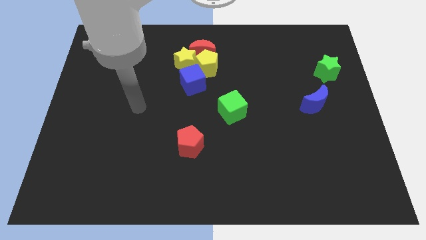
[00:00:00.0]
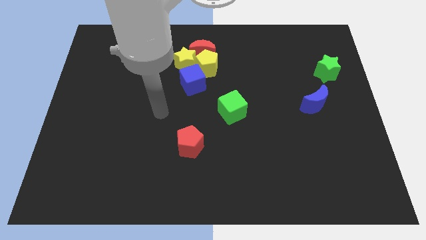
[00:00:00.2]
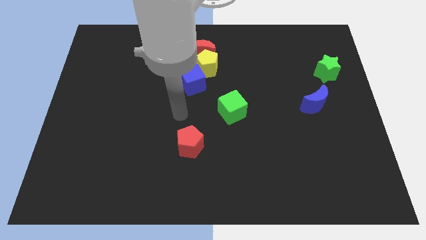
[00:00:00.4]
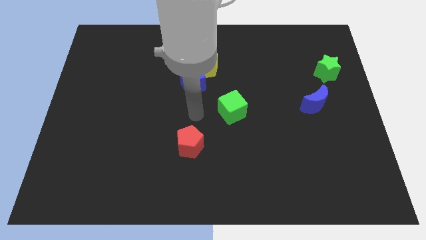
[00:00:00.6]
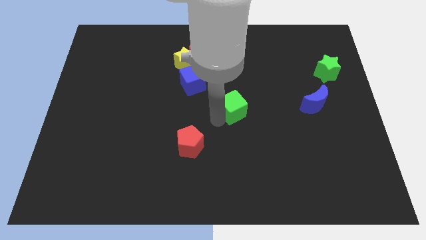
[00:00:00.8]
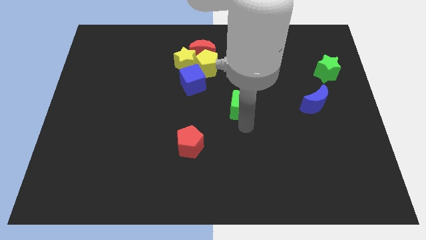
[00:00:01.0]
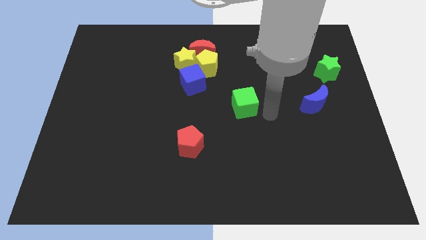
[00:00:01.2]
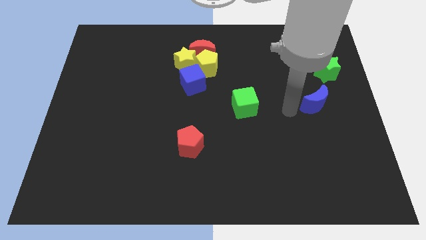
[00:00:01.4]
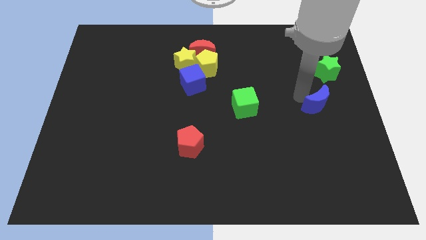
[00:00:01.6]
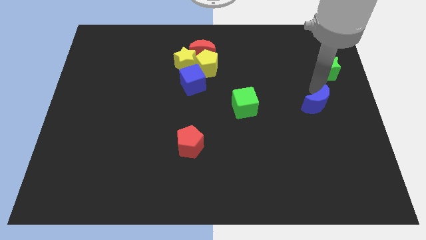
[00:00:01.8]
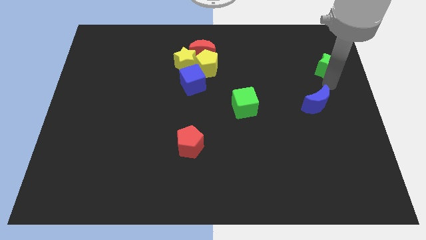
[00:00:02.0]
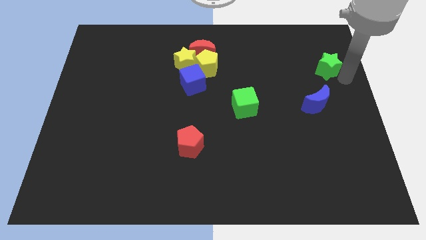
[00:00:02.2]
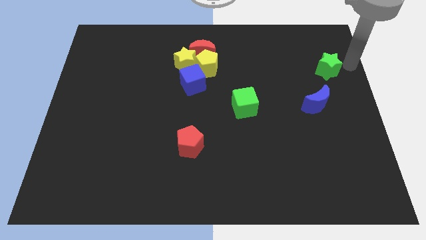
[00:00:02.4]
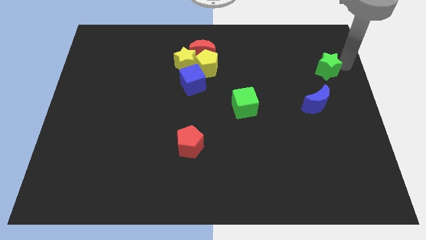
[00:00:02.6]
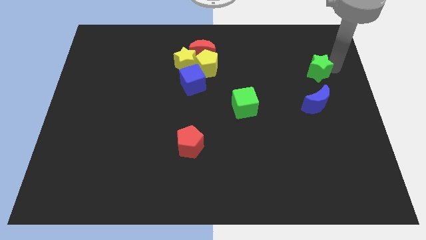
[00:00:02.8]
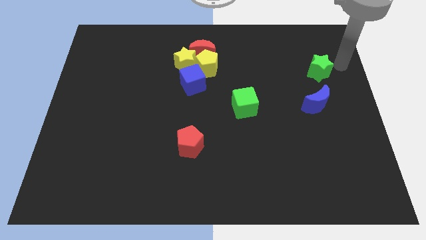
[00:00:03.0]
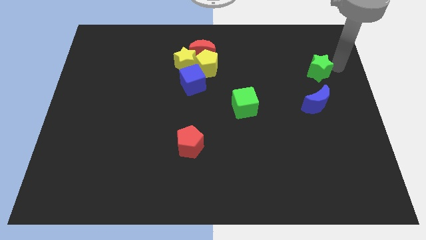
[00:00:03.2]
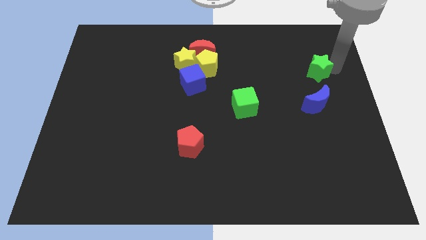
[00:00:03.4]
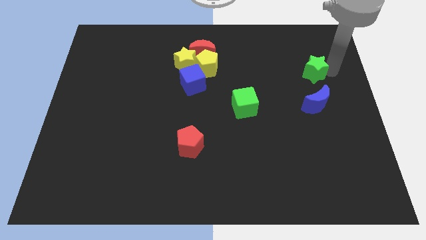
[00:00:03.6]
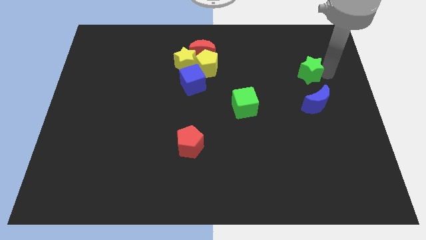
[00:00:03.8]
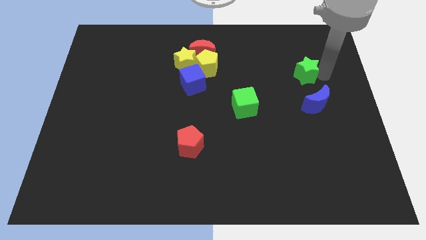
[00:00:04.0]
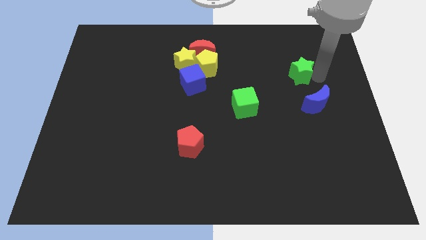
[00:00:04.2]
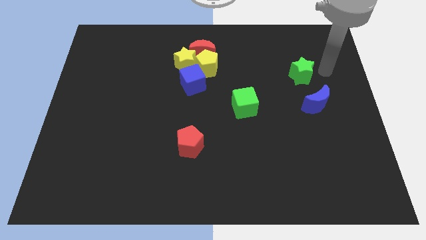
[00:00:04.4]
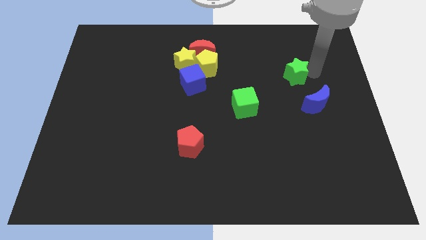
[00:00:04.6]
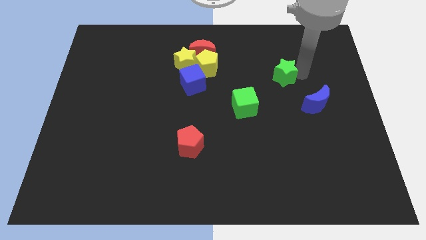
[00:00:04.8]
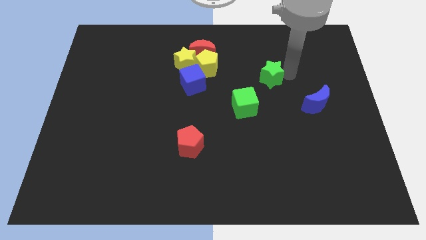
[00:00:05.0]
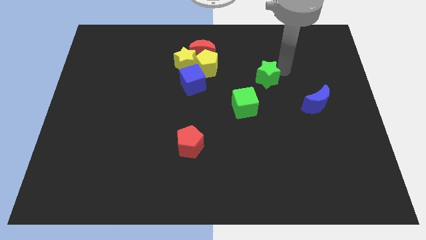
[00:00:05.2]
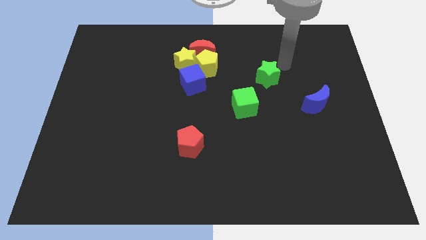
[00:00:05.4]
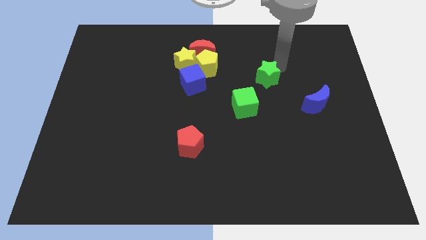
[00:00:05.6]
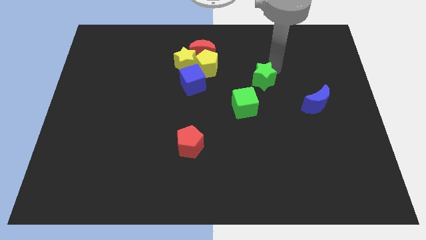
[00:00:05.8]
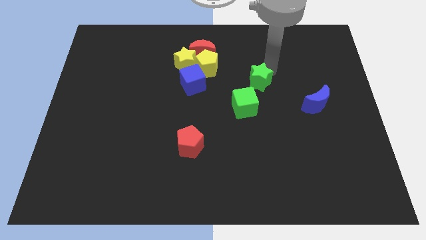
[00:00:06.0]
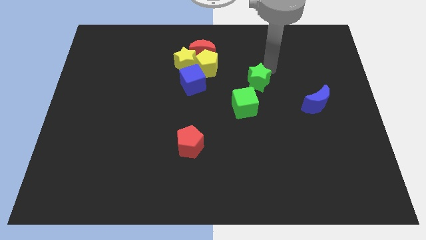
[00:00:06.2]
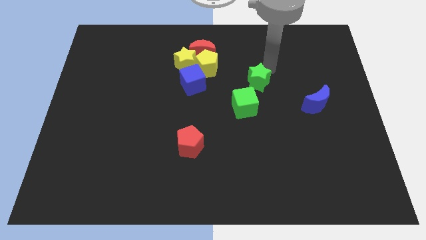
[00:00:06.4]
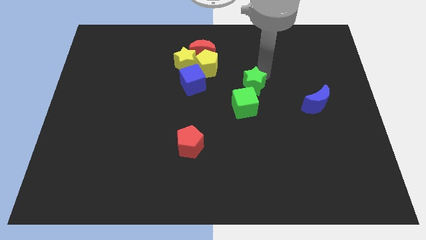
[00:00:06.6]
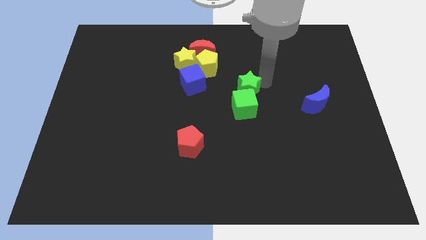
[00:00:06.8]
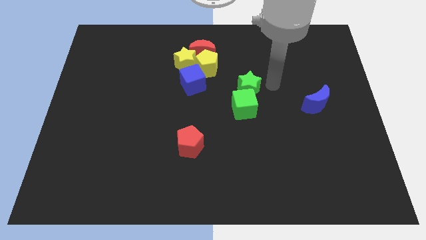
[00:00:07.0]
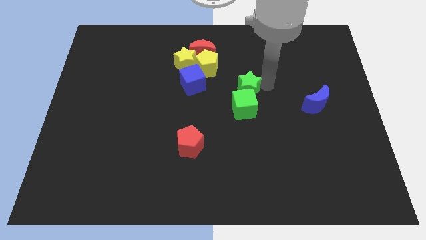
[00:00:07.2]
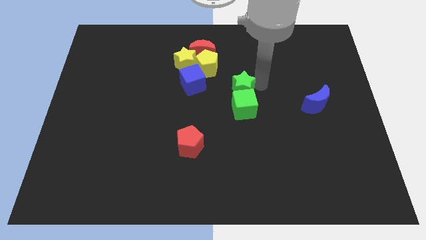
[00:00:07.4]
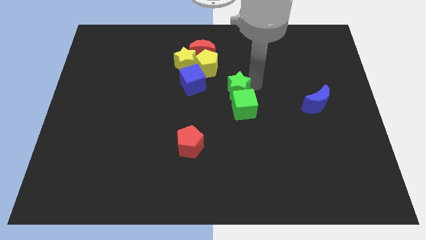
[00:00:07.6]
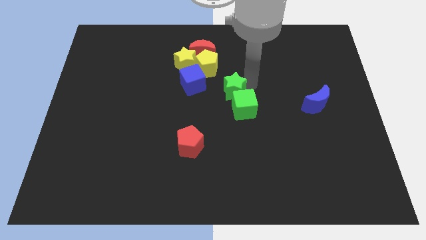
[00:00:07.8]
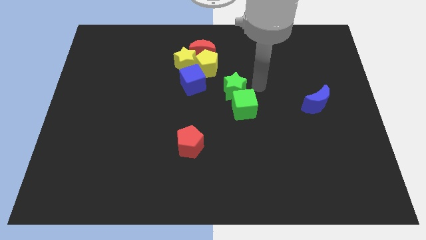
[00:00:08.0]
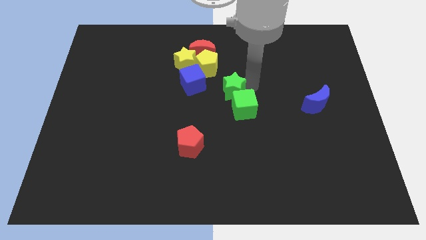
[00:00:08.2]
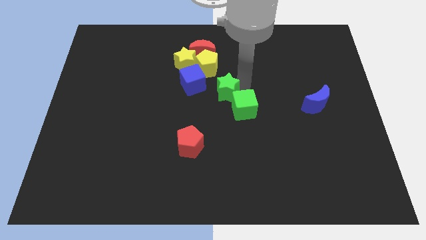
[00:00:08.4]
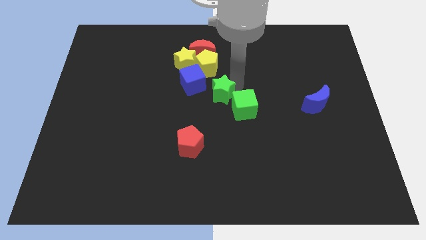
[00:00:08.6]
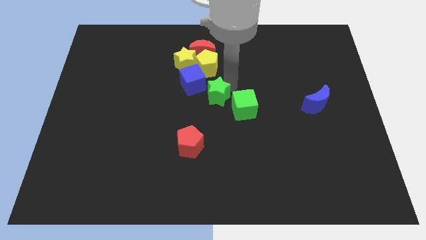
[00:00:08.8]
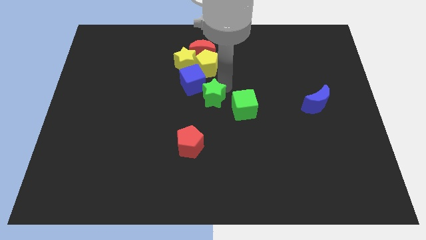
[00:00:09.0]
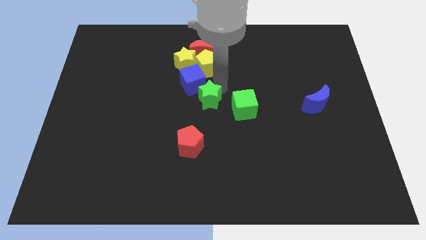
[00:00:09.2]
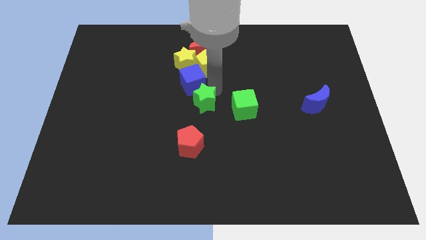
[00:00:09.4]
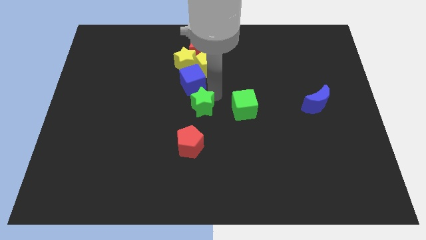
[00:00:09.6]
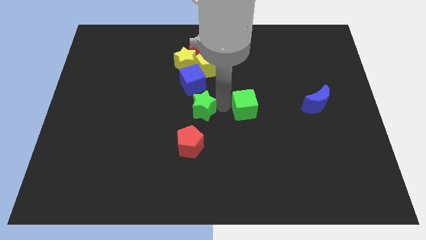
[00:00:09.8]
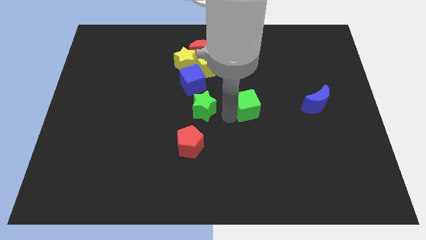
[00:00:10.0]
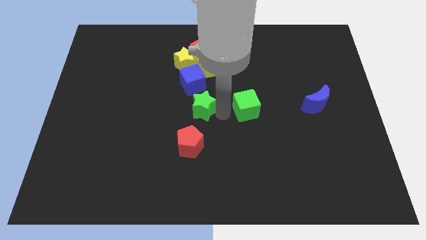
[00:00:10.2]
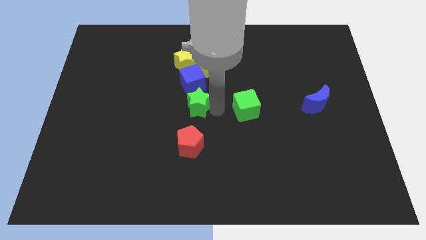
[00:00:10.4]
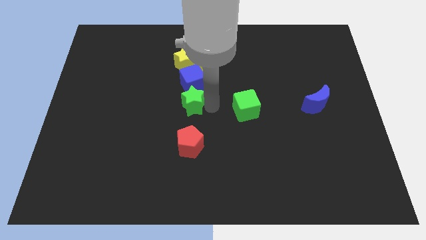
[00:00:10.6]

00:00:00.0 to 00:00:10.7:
push the green star diagonally down and to the left of the blue cube

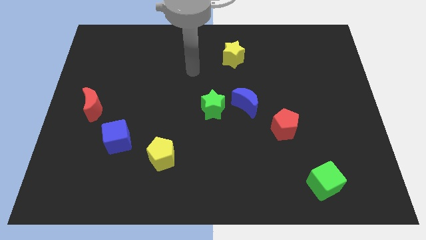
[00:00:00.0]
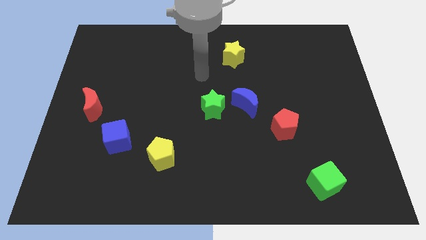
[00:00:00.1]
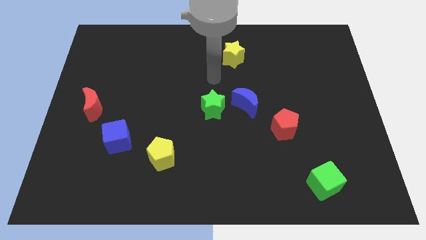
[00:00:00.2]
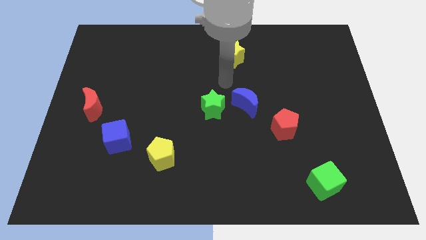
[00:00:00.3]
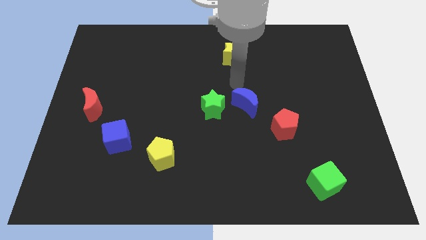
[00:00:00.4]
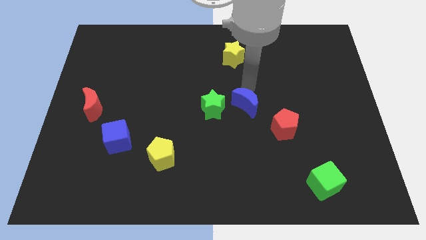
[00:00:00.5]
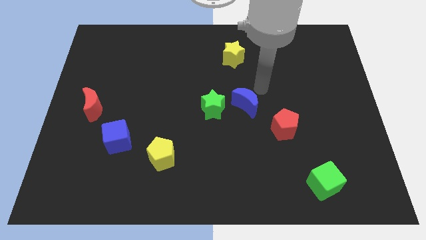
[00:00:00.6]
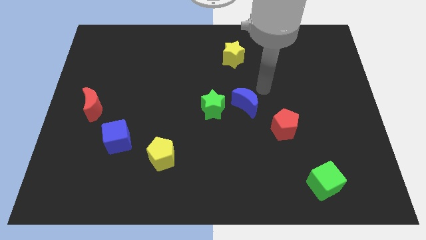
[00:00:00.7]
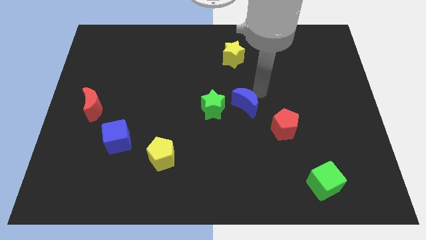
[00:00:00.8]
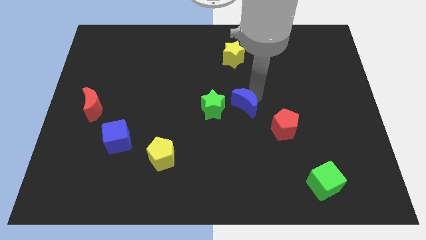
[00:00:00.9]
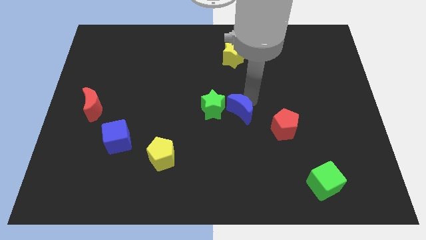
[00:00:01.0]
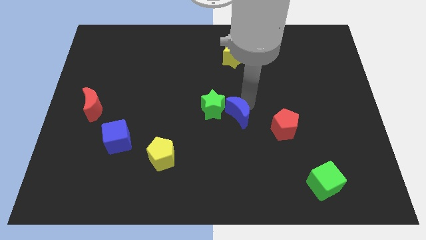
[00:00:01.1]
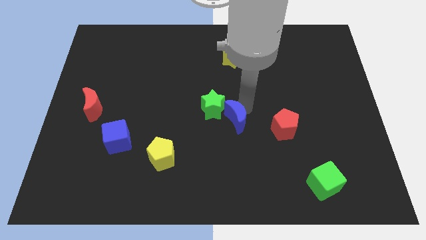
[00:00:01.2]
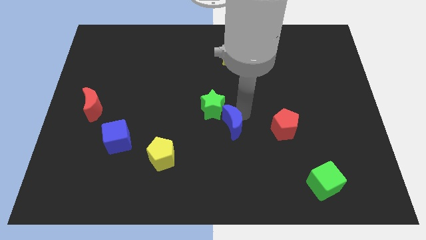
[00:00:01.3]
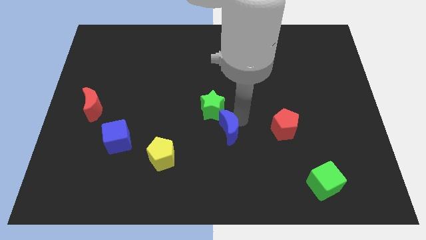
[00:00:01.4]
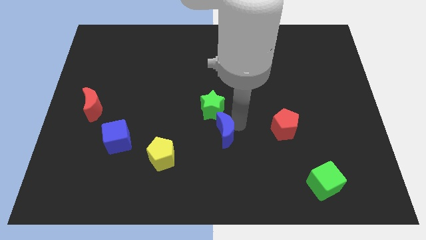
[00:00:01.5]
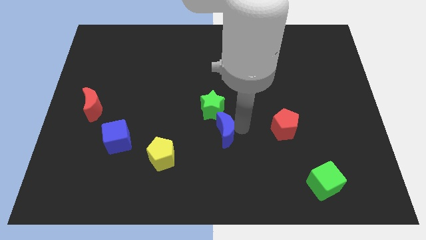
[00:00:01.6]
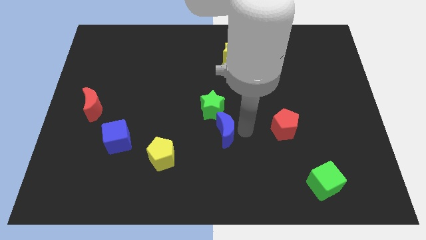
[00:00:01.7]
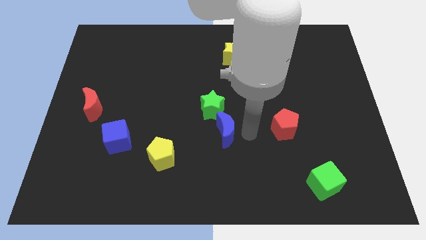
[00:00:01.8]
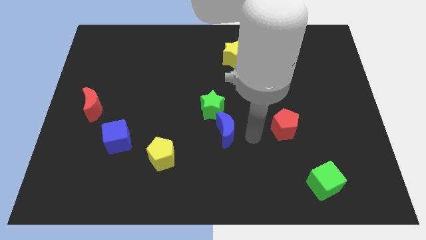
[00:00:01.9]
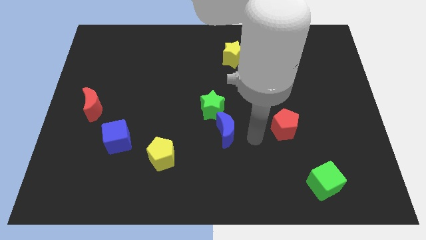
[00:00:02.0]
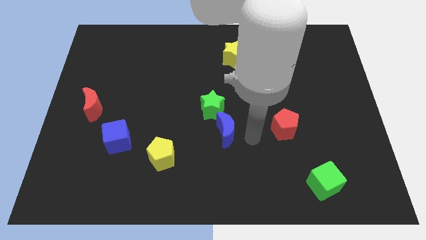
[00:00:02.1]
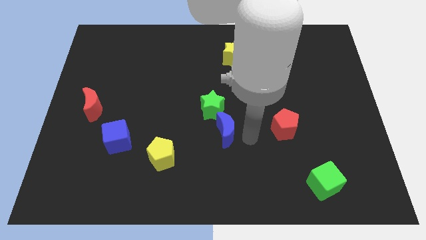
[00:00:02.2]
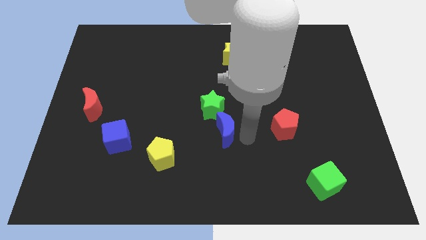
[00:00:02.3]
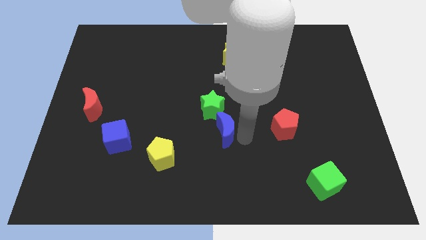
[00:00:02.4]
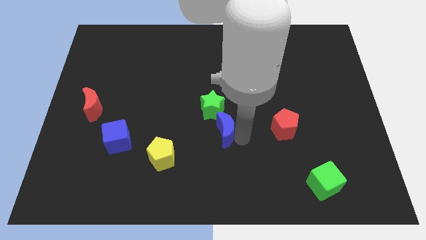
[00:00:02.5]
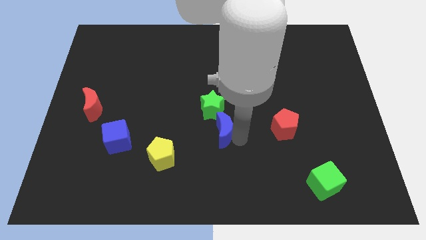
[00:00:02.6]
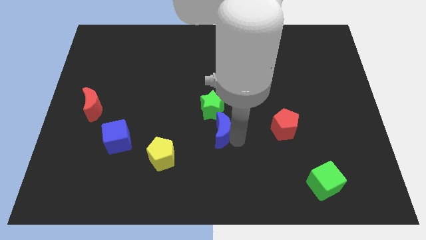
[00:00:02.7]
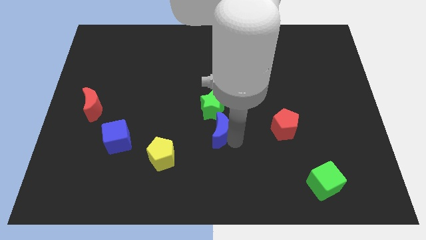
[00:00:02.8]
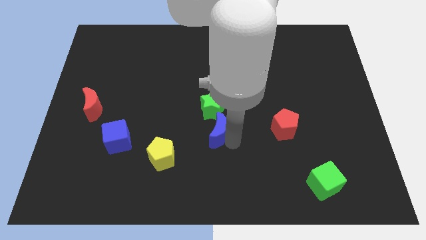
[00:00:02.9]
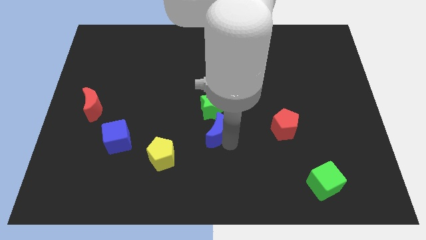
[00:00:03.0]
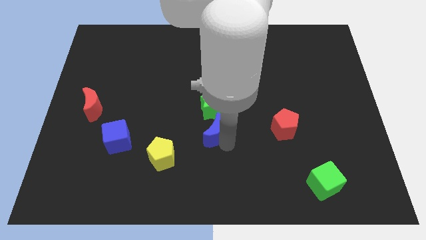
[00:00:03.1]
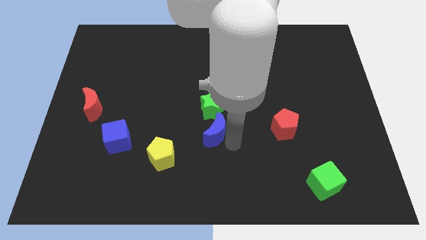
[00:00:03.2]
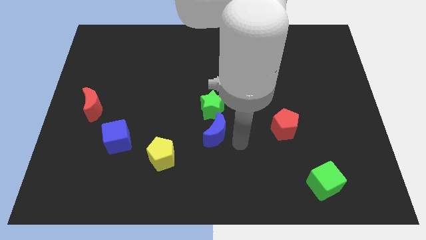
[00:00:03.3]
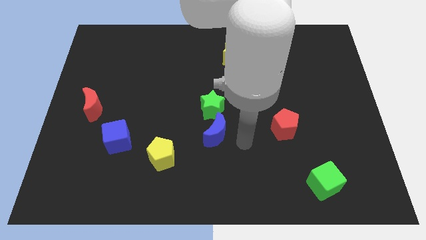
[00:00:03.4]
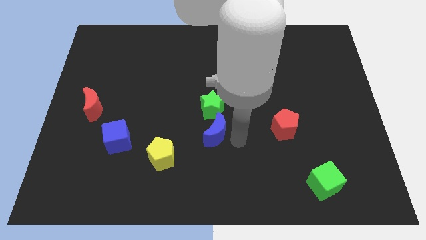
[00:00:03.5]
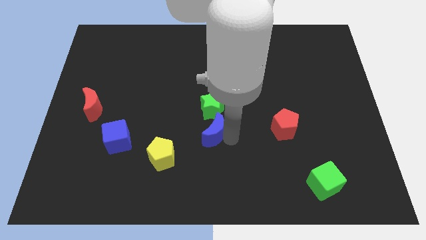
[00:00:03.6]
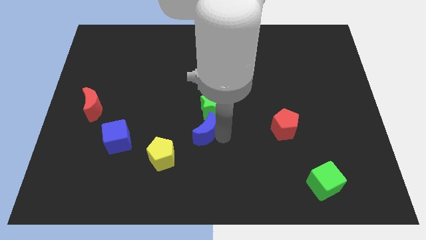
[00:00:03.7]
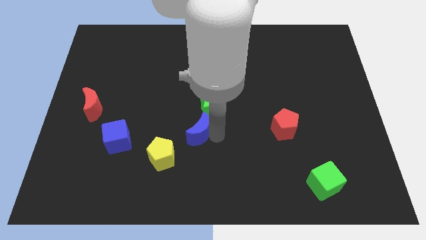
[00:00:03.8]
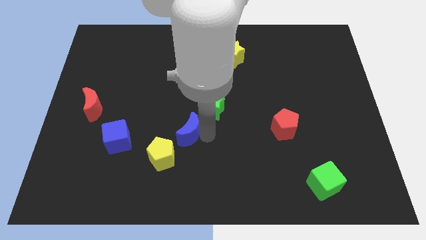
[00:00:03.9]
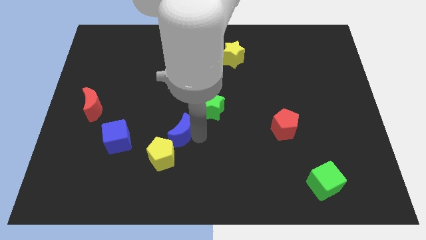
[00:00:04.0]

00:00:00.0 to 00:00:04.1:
push the blue moon above the yellow pentagon
